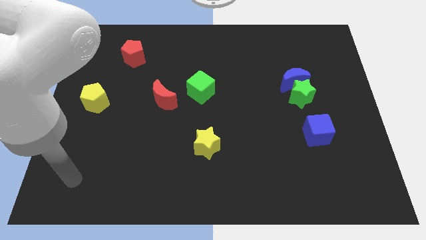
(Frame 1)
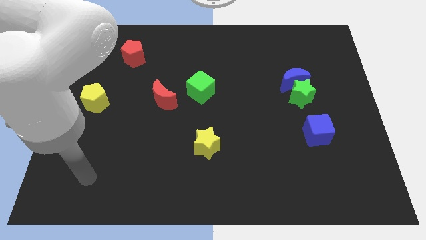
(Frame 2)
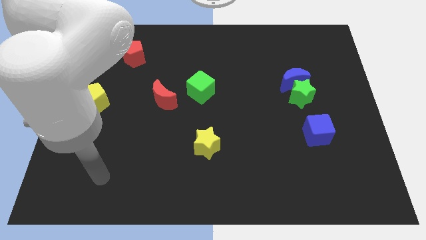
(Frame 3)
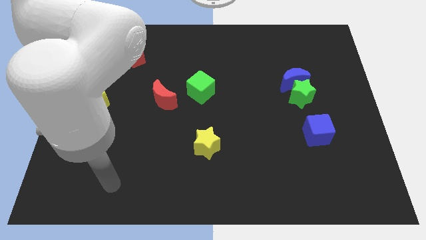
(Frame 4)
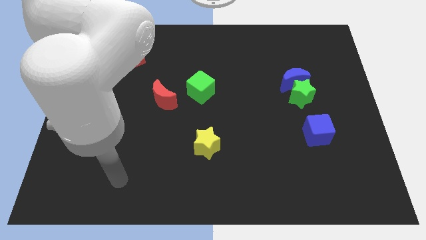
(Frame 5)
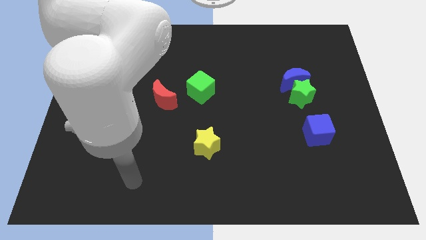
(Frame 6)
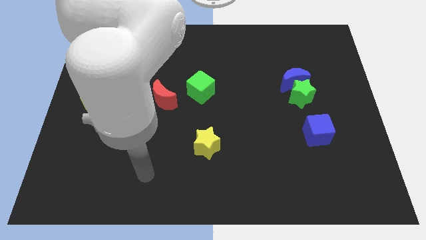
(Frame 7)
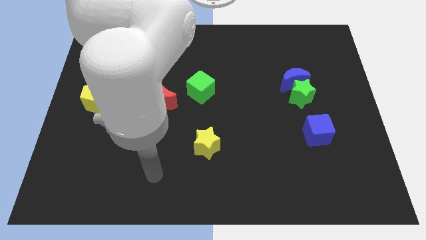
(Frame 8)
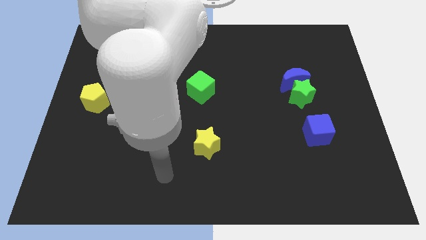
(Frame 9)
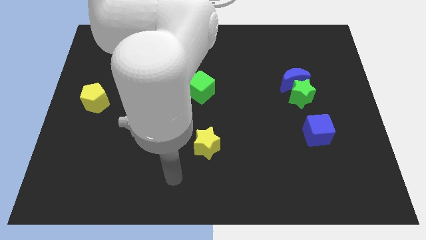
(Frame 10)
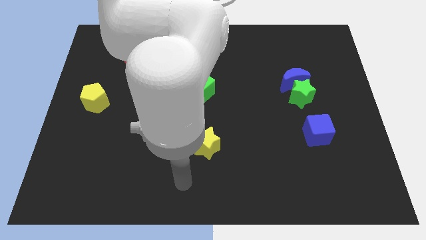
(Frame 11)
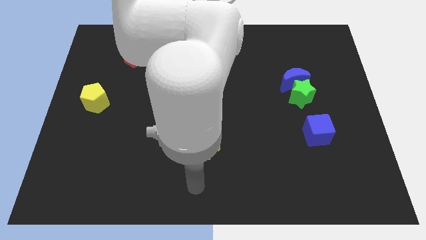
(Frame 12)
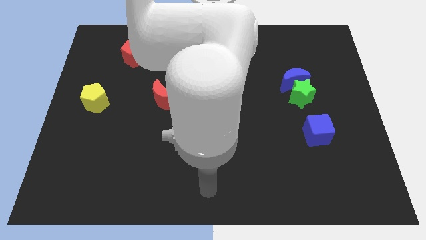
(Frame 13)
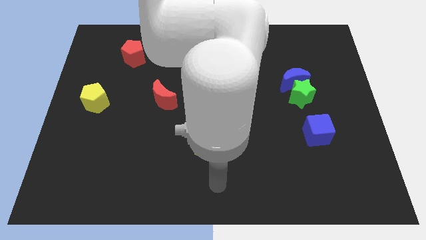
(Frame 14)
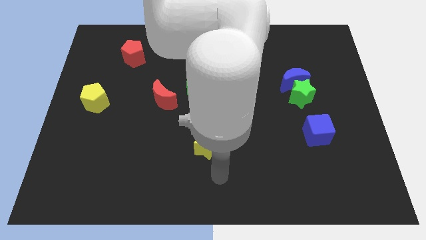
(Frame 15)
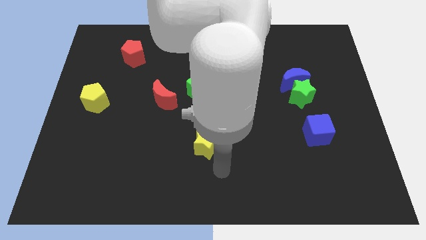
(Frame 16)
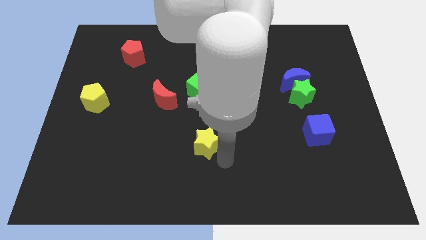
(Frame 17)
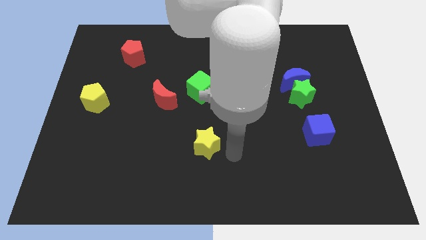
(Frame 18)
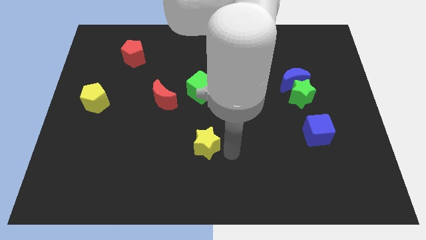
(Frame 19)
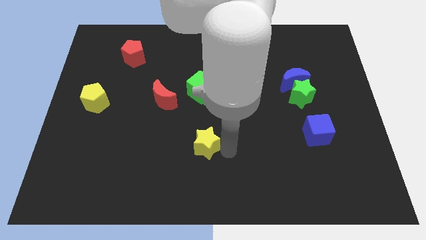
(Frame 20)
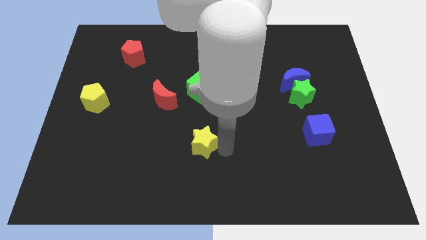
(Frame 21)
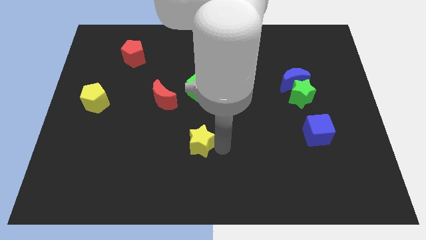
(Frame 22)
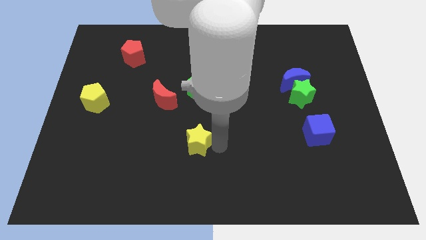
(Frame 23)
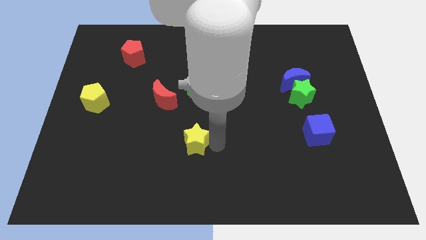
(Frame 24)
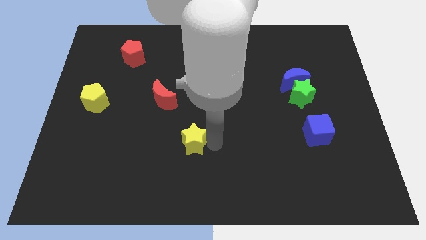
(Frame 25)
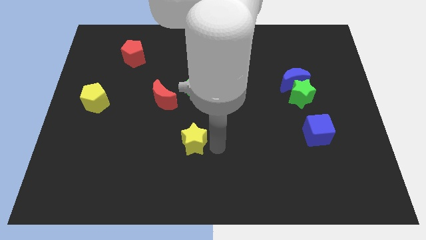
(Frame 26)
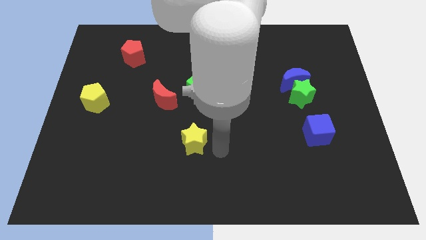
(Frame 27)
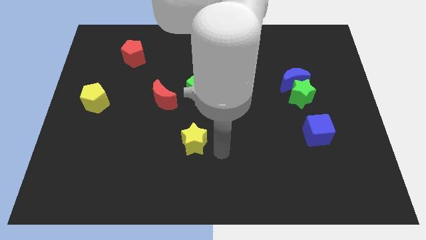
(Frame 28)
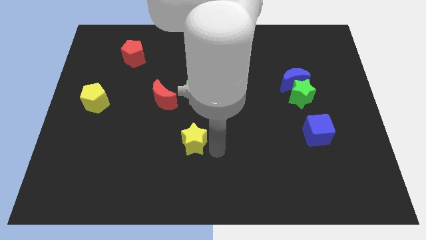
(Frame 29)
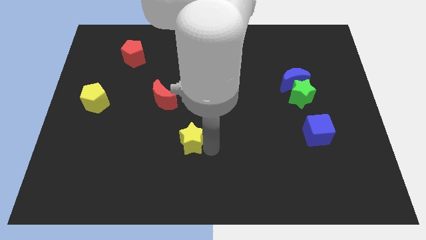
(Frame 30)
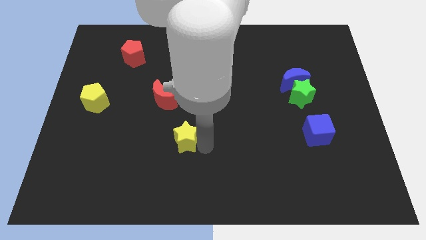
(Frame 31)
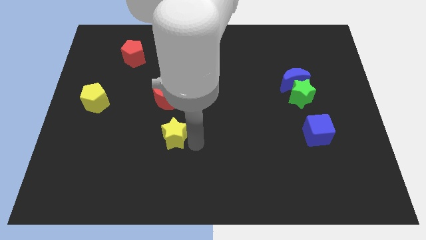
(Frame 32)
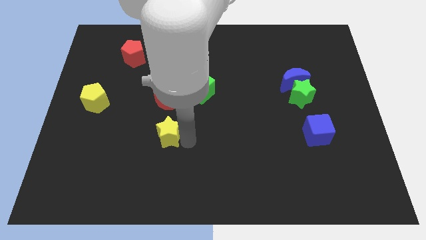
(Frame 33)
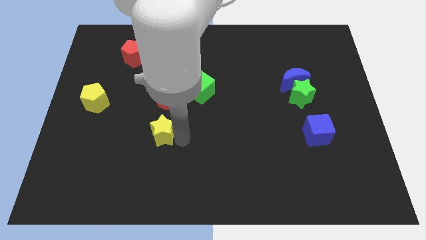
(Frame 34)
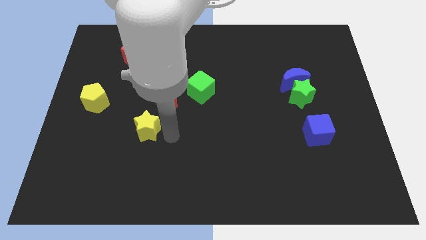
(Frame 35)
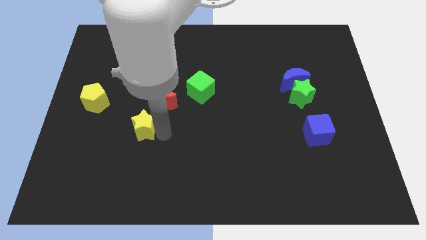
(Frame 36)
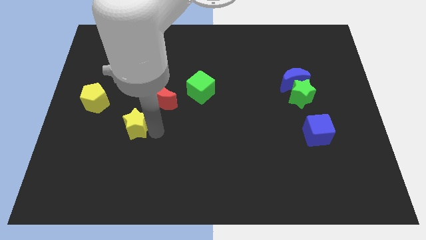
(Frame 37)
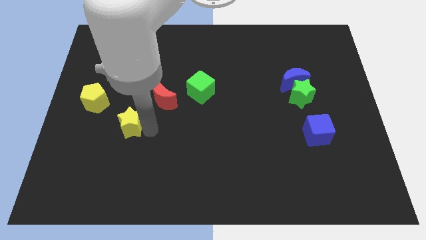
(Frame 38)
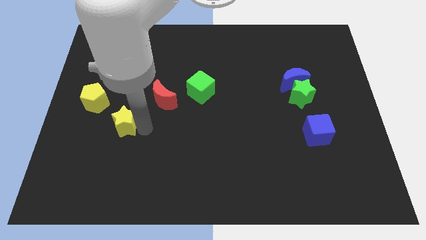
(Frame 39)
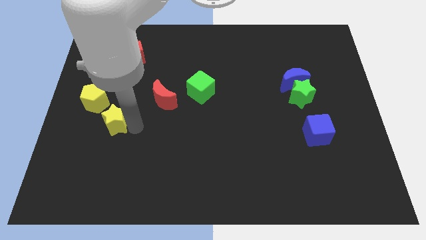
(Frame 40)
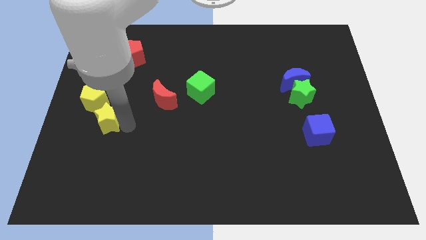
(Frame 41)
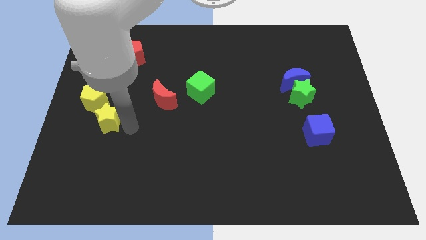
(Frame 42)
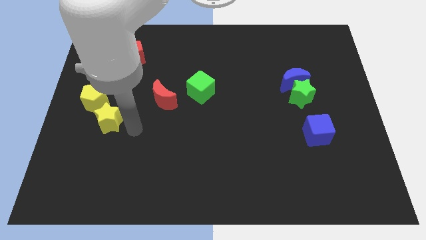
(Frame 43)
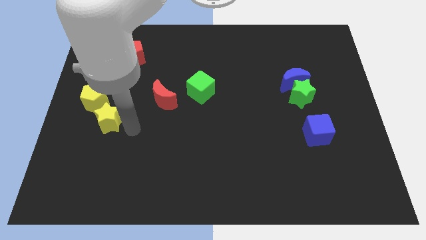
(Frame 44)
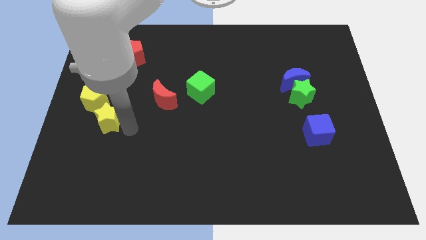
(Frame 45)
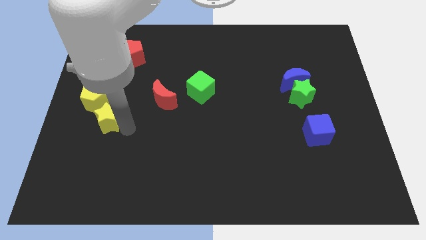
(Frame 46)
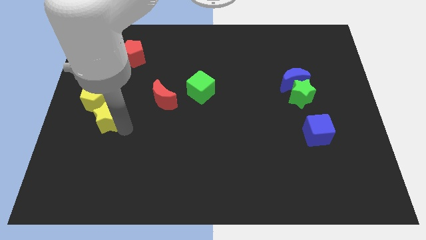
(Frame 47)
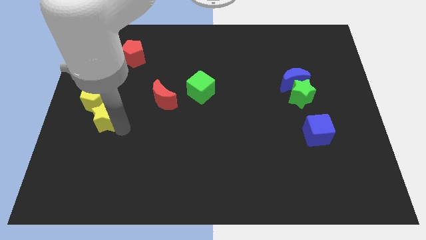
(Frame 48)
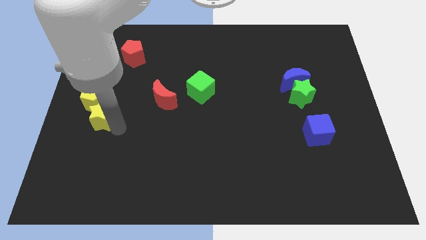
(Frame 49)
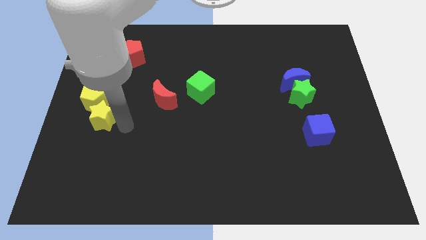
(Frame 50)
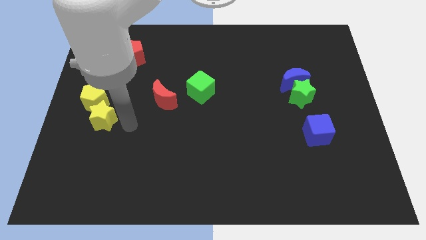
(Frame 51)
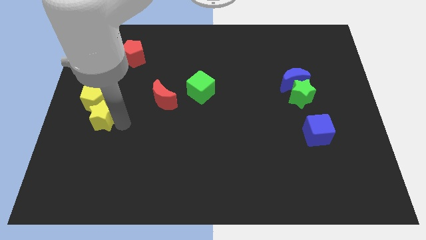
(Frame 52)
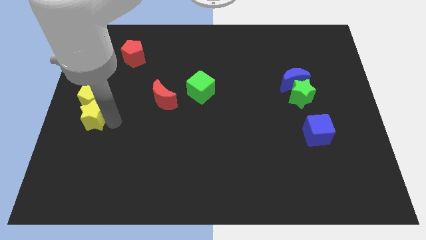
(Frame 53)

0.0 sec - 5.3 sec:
slide the yellow star to the left side of the board
